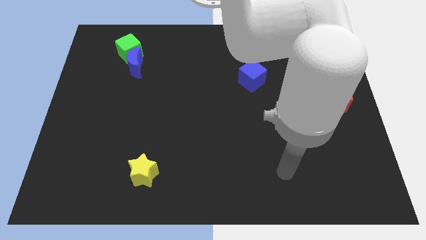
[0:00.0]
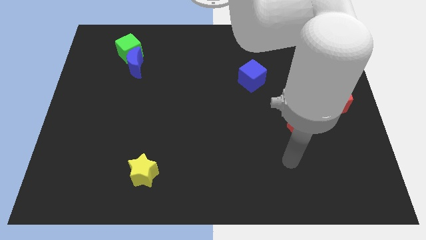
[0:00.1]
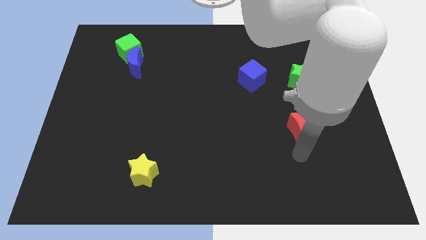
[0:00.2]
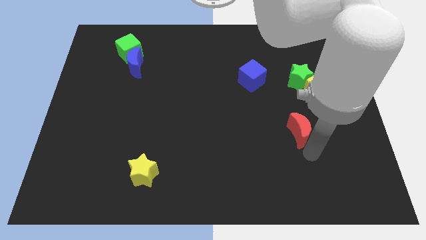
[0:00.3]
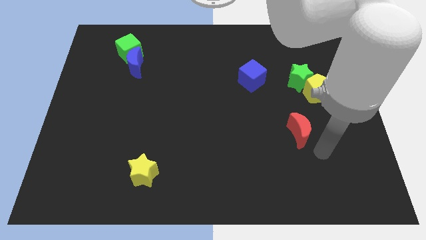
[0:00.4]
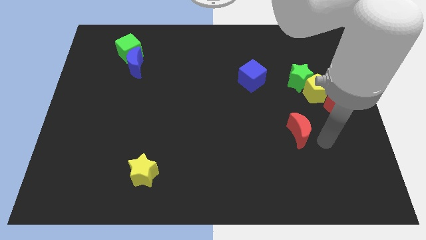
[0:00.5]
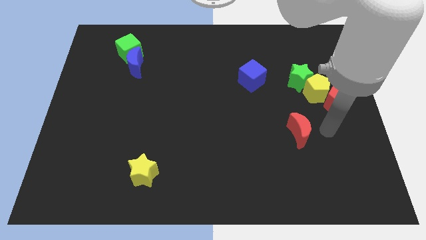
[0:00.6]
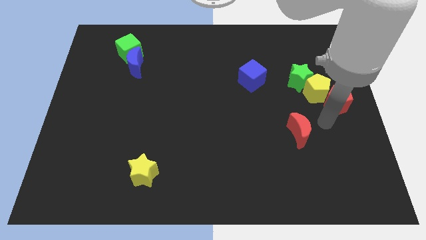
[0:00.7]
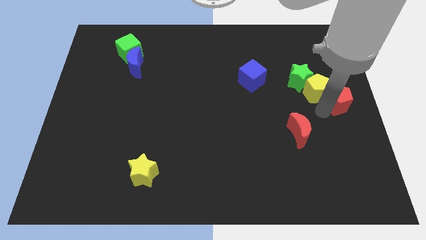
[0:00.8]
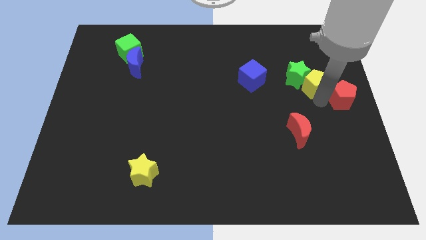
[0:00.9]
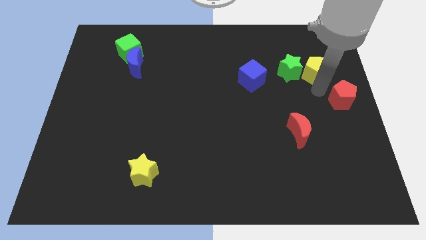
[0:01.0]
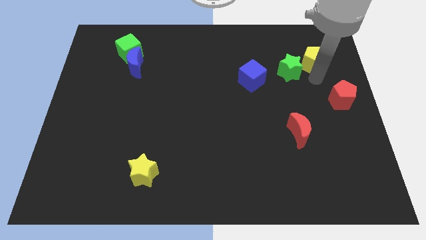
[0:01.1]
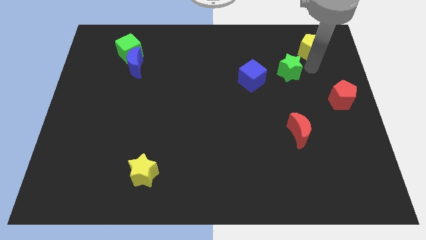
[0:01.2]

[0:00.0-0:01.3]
pull the green star apart from the yellow pentagon

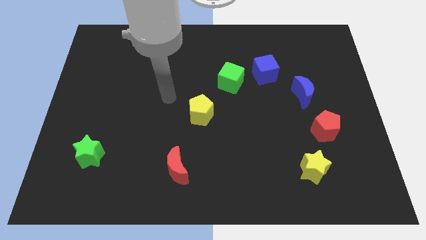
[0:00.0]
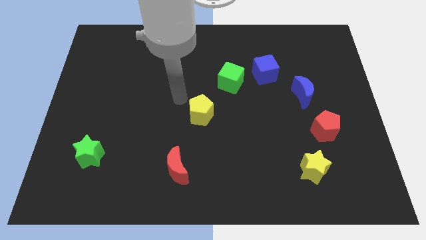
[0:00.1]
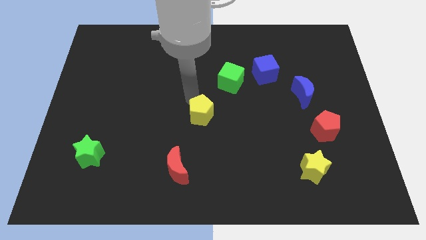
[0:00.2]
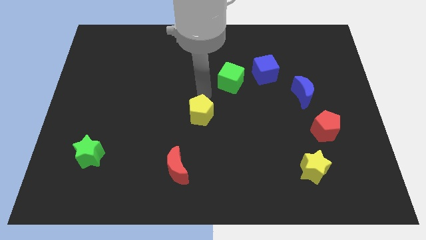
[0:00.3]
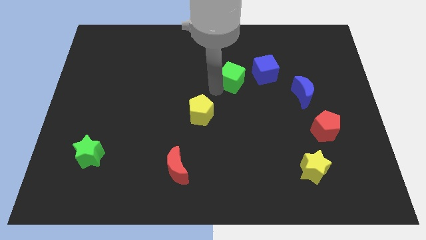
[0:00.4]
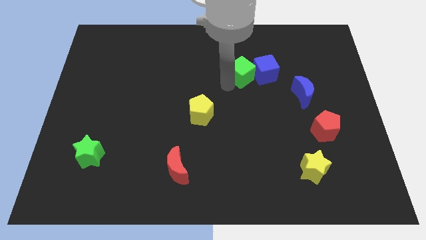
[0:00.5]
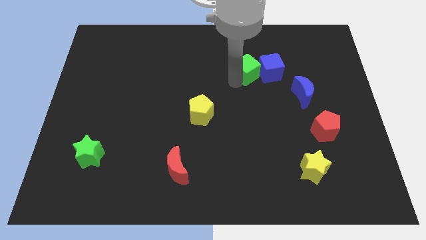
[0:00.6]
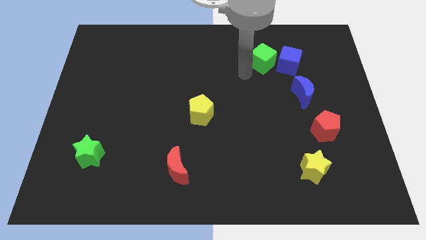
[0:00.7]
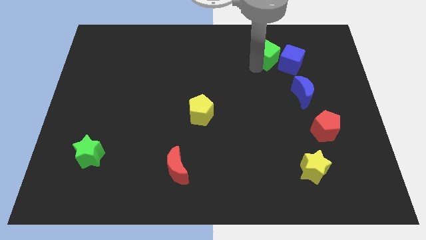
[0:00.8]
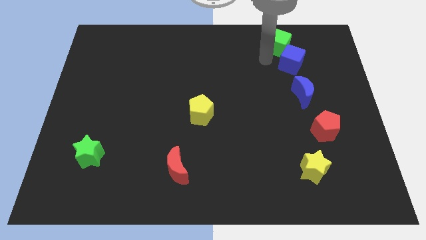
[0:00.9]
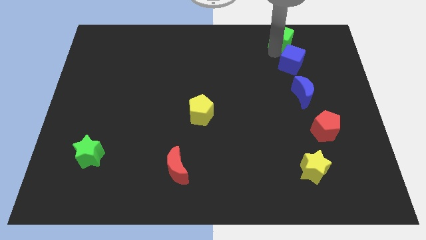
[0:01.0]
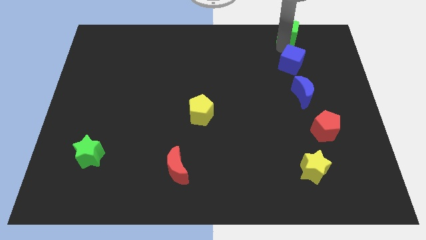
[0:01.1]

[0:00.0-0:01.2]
move the blue cube away from the green cube

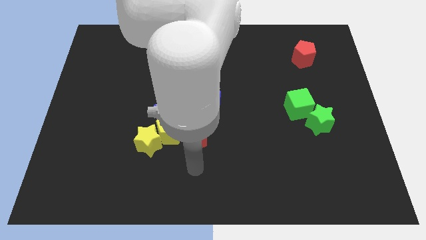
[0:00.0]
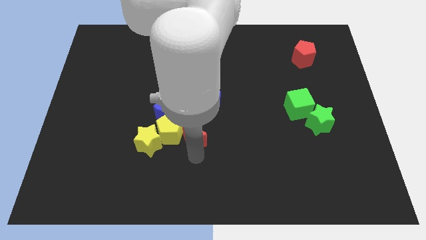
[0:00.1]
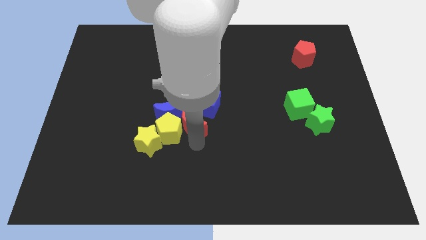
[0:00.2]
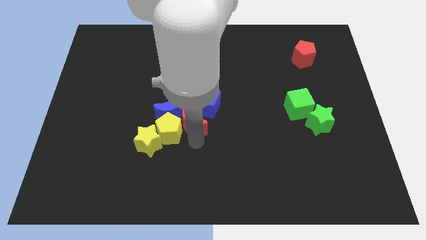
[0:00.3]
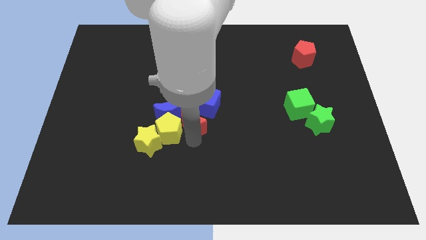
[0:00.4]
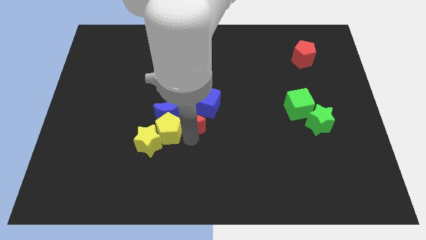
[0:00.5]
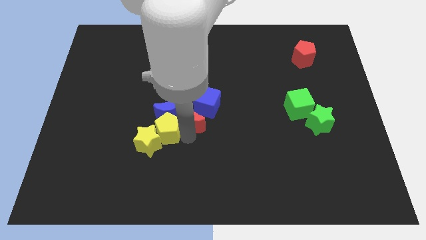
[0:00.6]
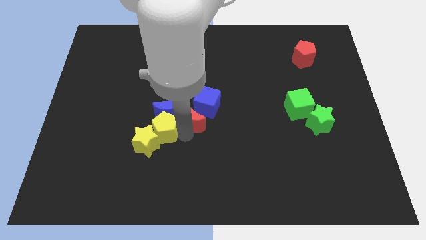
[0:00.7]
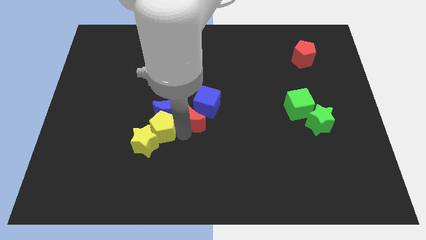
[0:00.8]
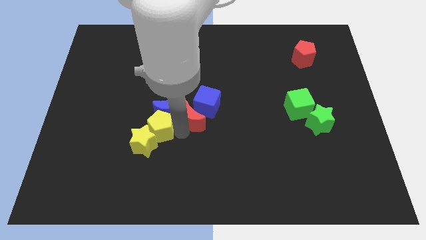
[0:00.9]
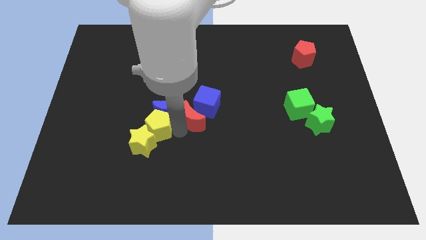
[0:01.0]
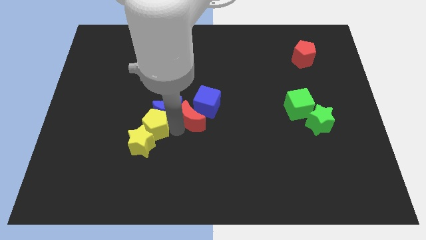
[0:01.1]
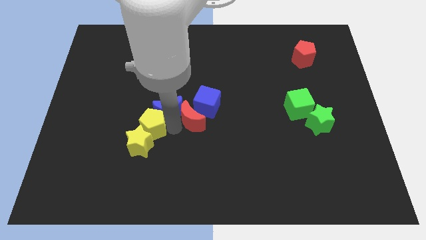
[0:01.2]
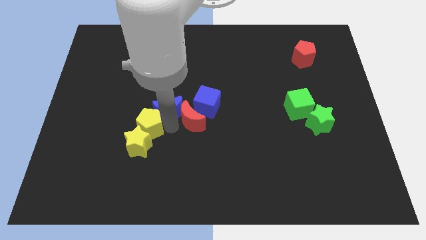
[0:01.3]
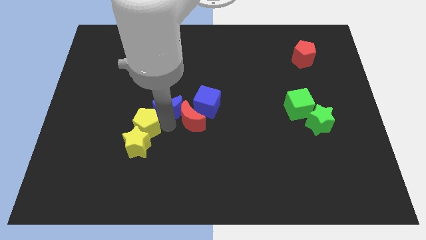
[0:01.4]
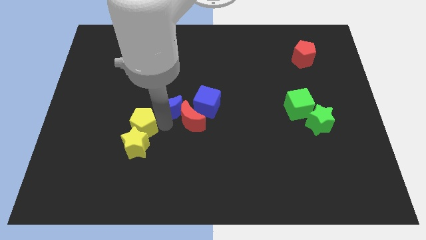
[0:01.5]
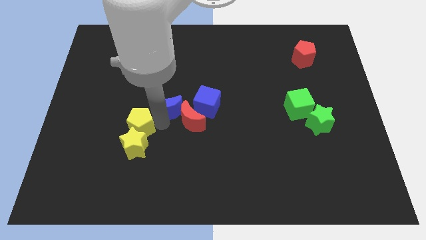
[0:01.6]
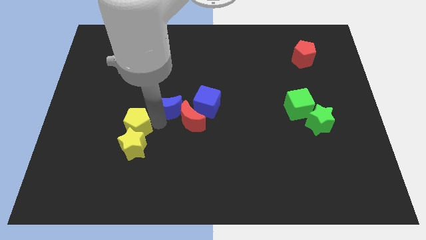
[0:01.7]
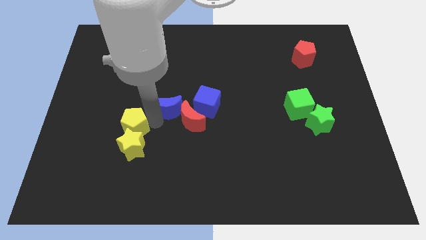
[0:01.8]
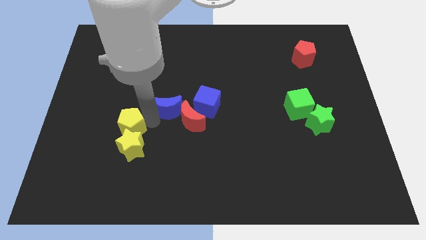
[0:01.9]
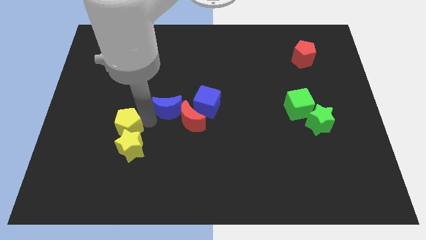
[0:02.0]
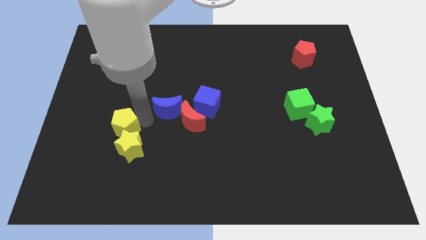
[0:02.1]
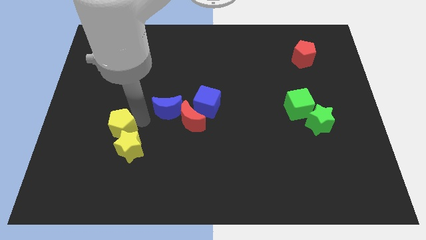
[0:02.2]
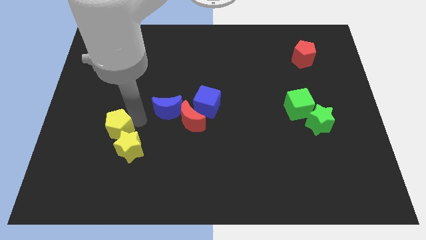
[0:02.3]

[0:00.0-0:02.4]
move the yellow pentagon away from the yellow star, blue moon, and red moon

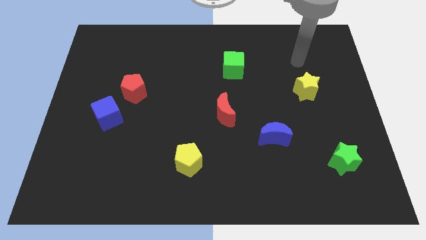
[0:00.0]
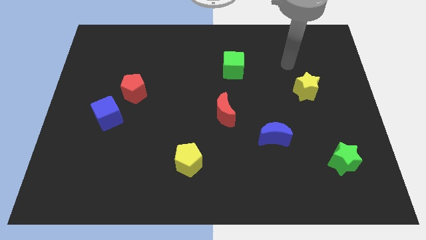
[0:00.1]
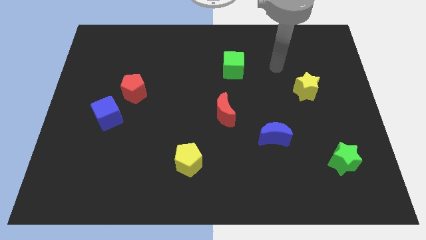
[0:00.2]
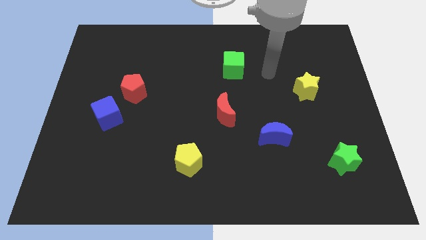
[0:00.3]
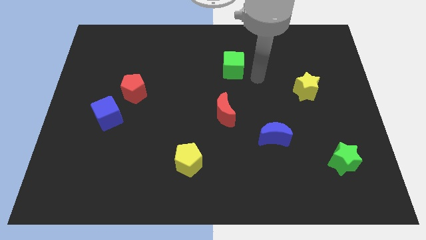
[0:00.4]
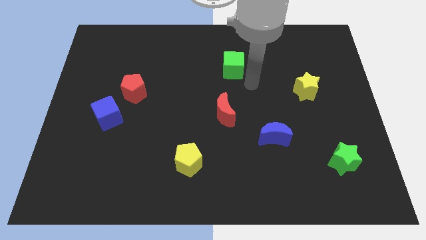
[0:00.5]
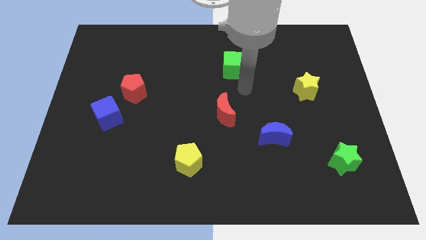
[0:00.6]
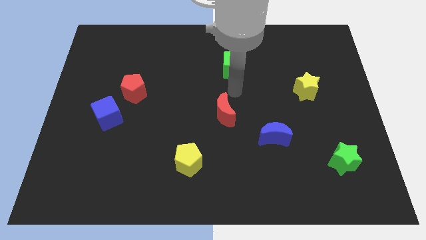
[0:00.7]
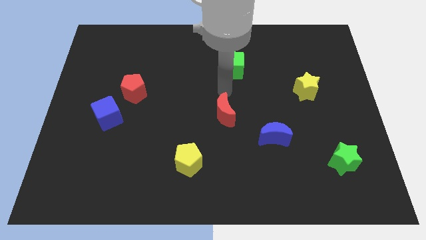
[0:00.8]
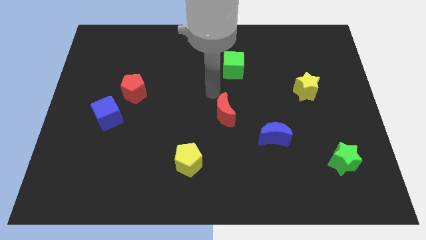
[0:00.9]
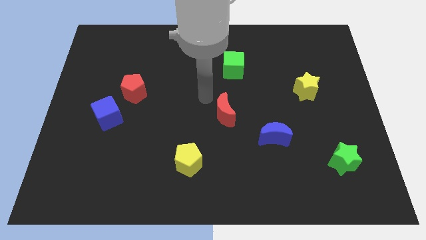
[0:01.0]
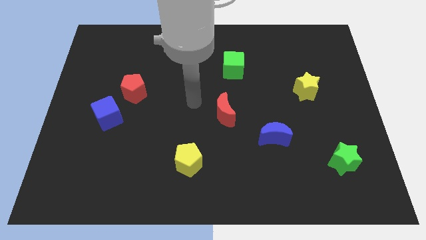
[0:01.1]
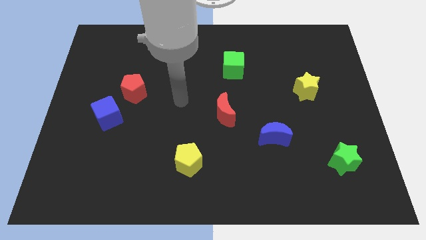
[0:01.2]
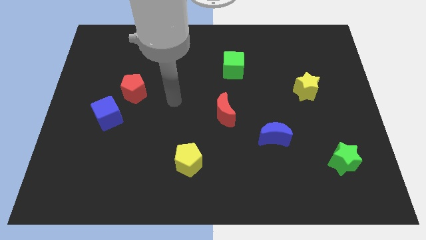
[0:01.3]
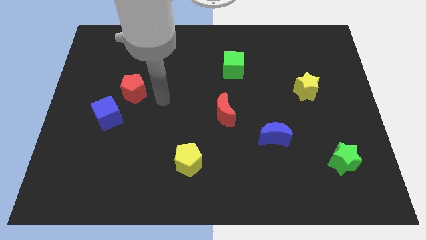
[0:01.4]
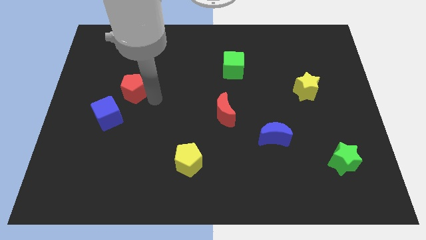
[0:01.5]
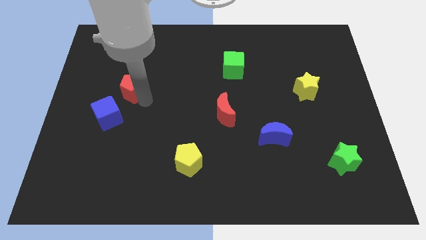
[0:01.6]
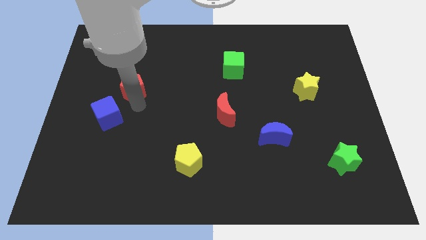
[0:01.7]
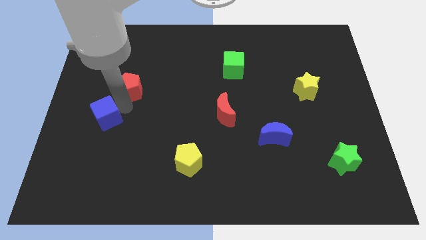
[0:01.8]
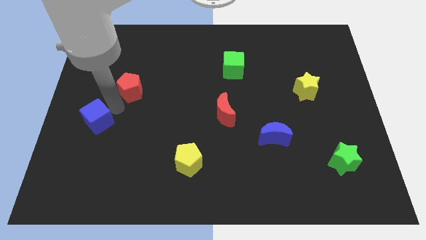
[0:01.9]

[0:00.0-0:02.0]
move the red pentagon away from the blue cube

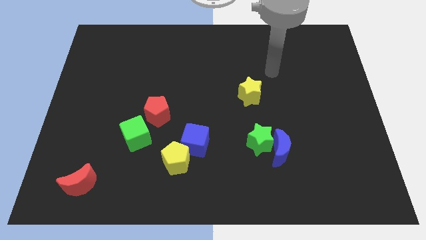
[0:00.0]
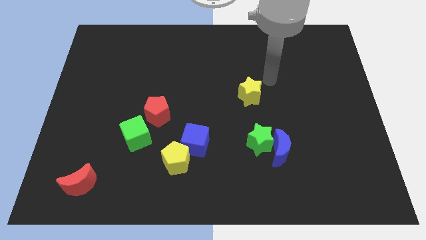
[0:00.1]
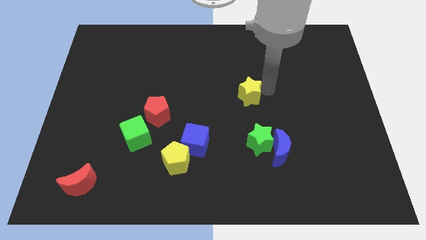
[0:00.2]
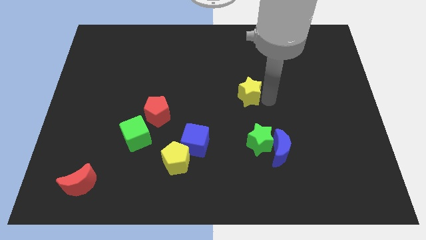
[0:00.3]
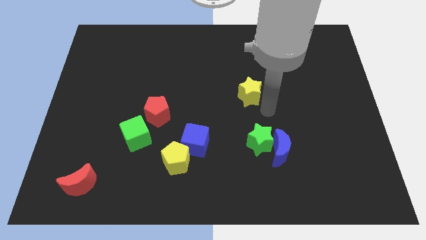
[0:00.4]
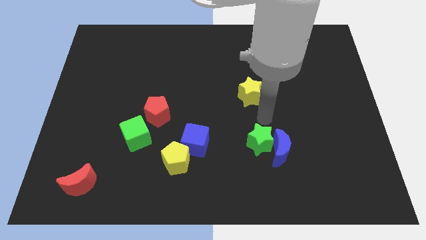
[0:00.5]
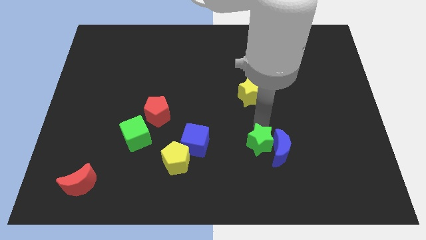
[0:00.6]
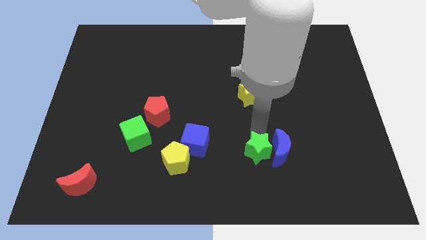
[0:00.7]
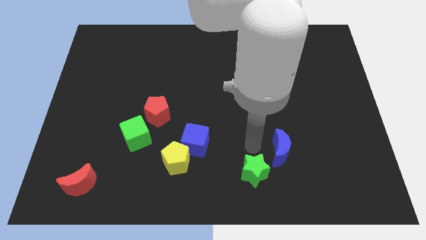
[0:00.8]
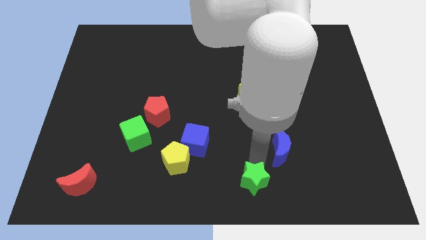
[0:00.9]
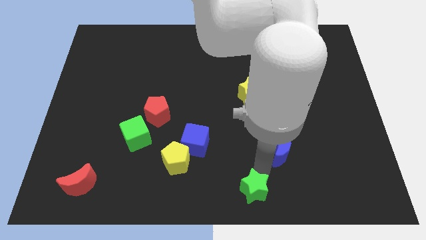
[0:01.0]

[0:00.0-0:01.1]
separate the blue moon from the green star

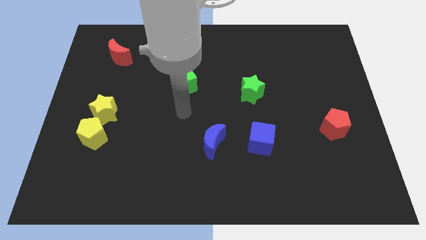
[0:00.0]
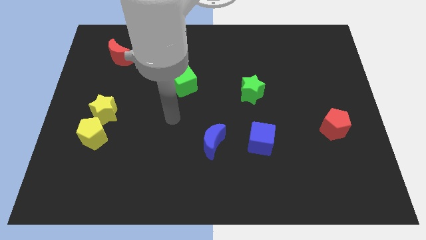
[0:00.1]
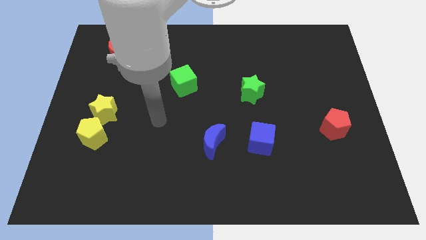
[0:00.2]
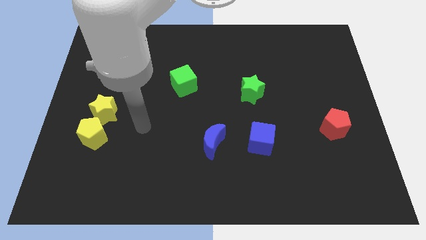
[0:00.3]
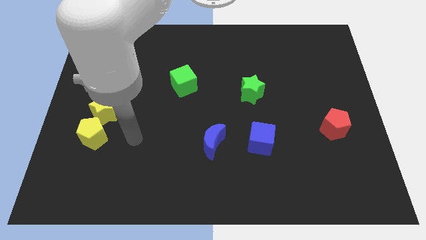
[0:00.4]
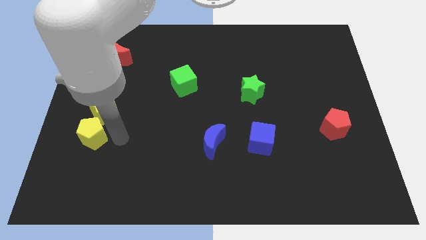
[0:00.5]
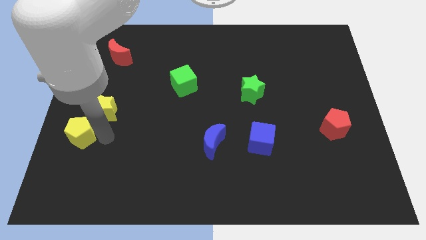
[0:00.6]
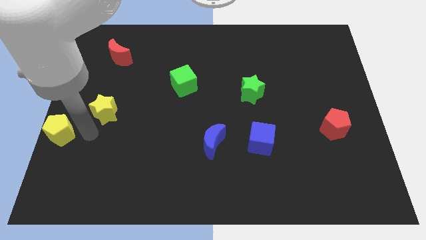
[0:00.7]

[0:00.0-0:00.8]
move the yellow star away from the yellow pentagon

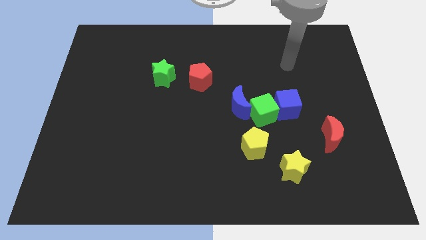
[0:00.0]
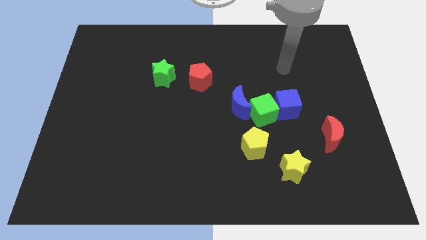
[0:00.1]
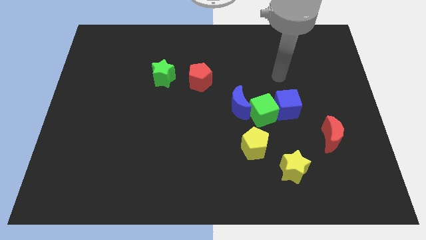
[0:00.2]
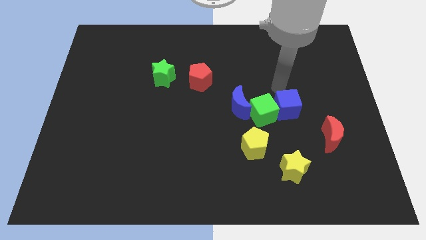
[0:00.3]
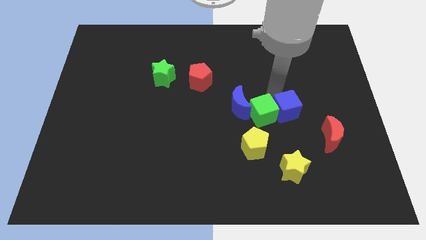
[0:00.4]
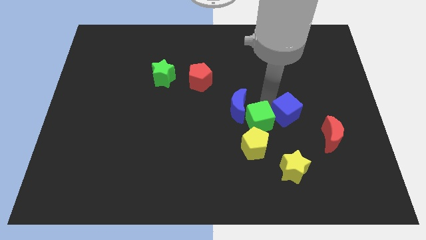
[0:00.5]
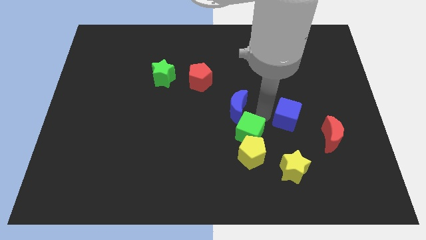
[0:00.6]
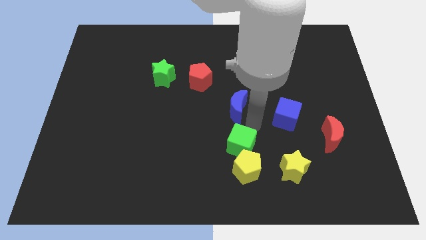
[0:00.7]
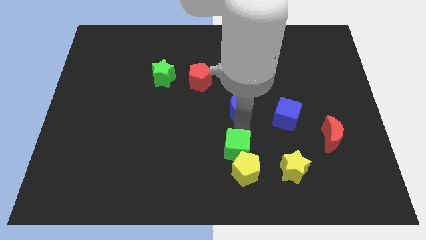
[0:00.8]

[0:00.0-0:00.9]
move the blue moon away from the green cube
